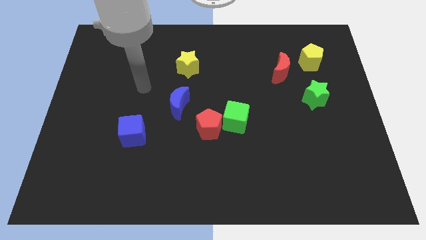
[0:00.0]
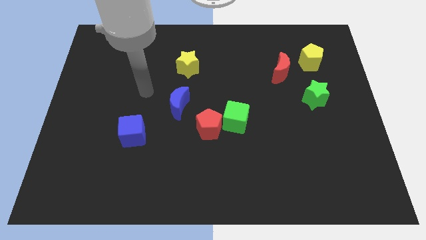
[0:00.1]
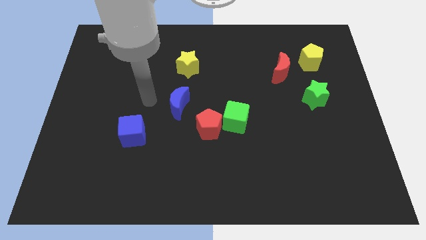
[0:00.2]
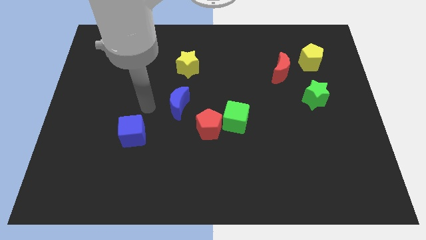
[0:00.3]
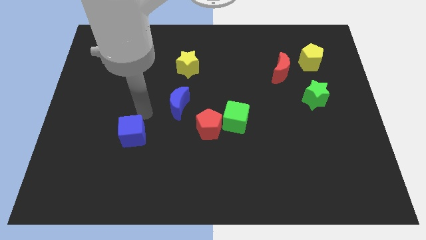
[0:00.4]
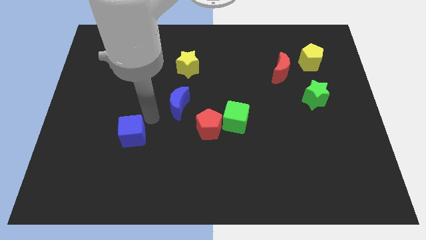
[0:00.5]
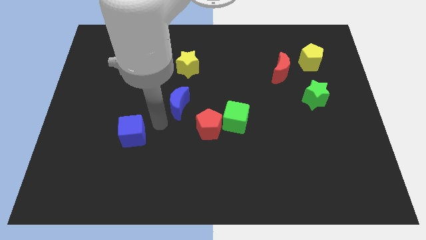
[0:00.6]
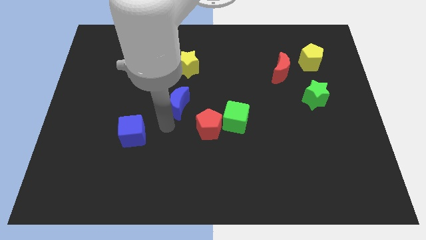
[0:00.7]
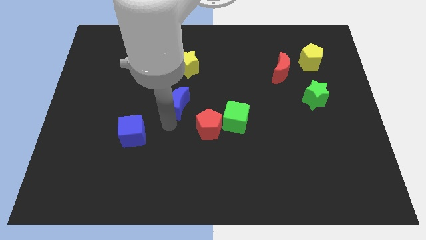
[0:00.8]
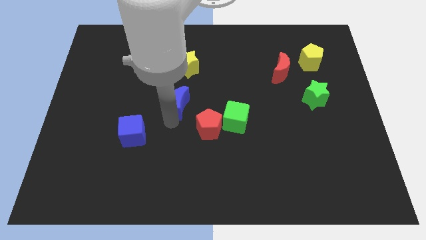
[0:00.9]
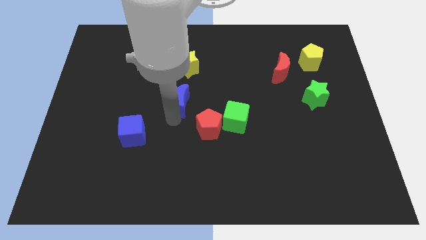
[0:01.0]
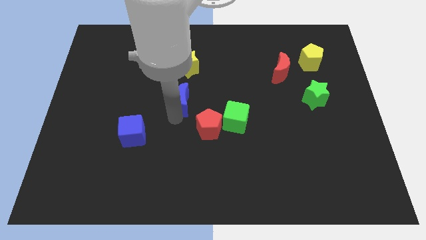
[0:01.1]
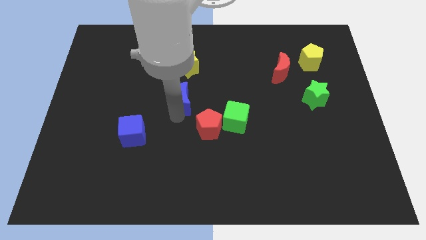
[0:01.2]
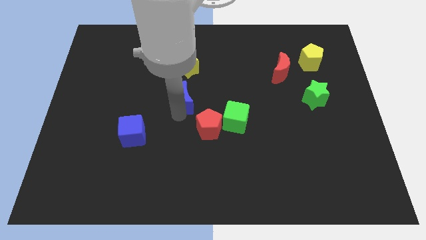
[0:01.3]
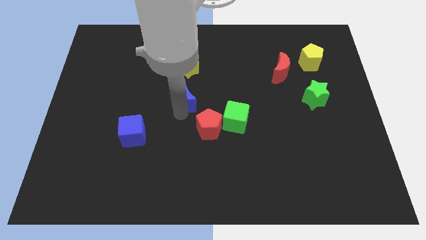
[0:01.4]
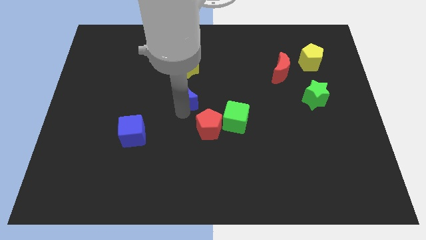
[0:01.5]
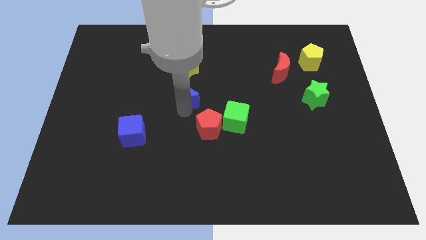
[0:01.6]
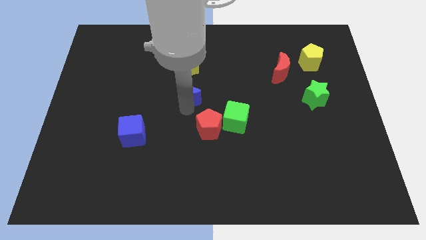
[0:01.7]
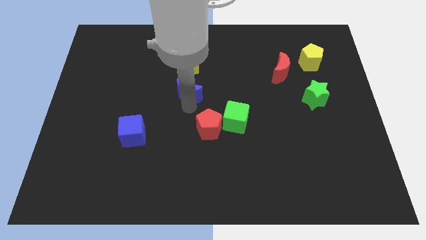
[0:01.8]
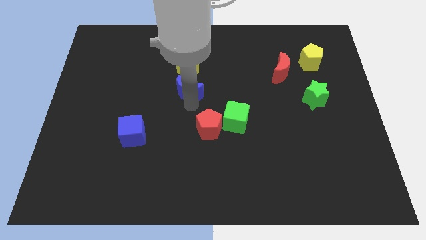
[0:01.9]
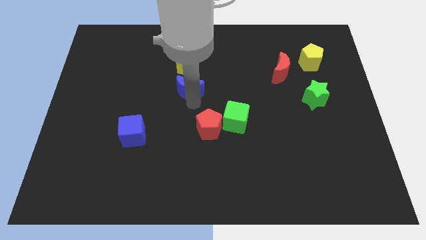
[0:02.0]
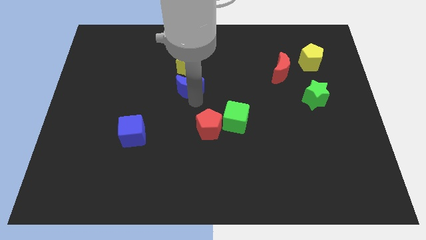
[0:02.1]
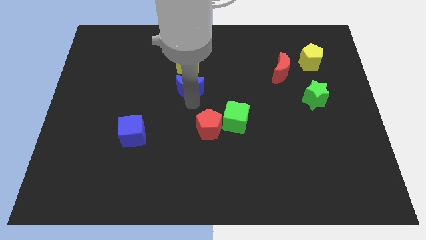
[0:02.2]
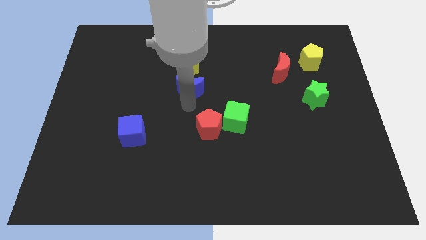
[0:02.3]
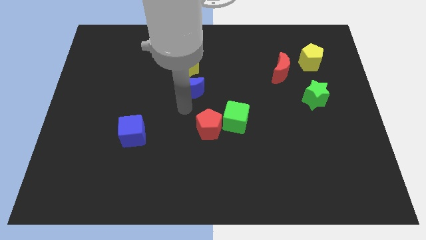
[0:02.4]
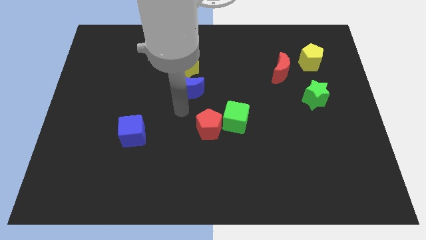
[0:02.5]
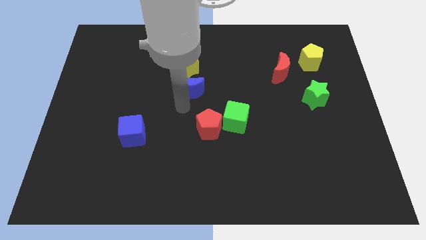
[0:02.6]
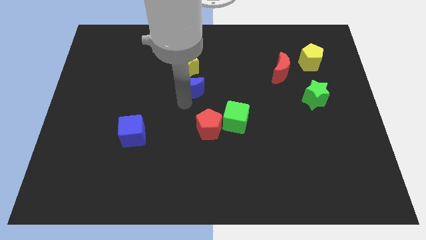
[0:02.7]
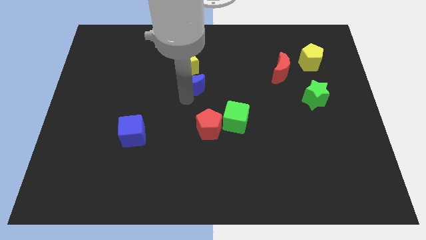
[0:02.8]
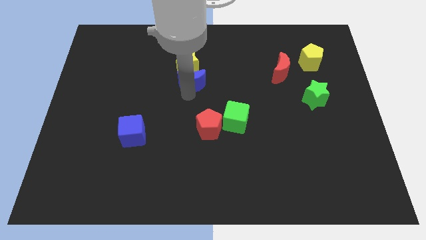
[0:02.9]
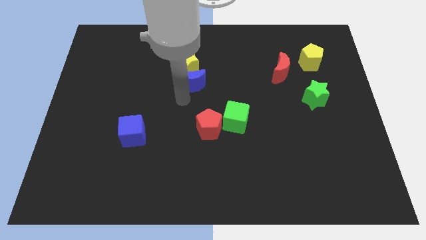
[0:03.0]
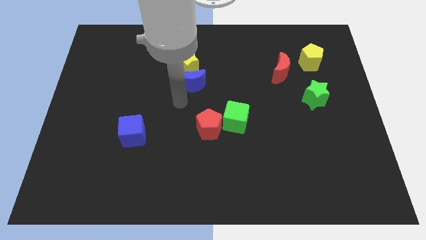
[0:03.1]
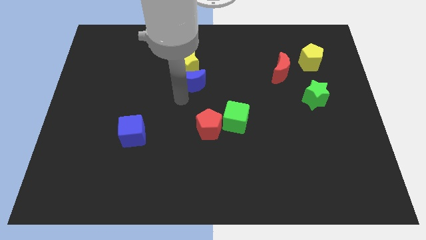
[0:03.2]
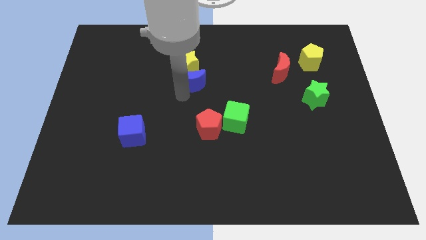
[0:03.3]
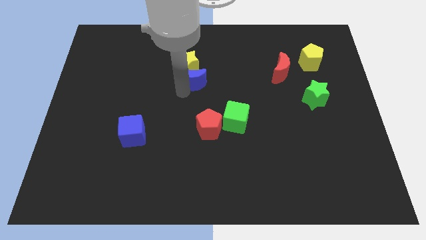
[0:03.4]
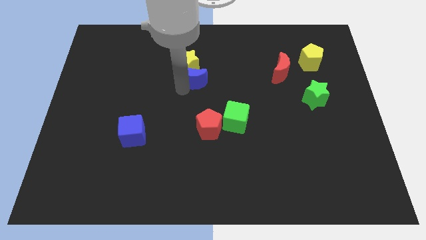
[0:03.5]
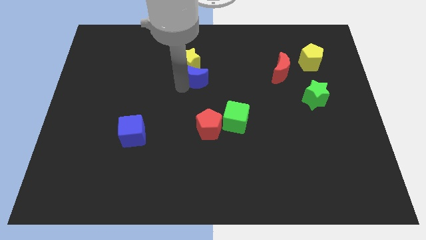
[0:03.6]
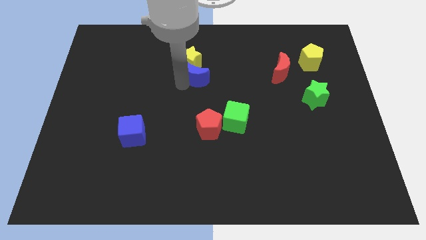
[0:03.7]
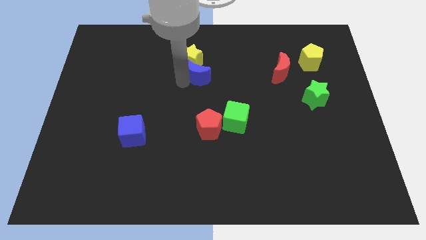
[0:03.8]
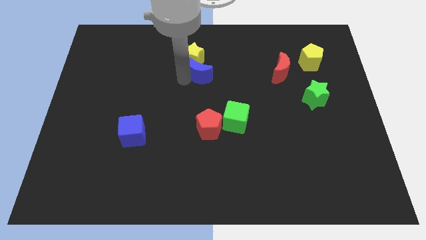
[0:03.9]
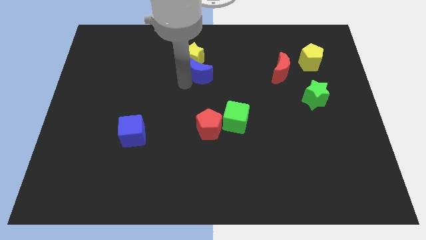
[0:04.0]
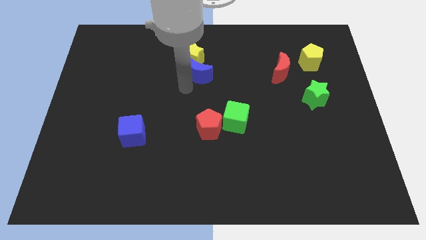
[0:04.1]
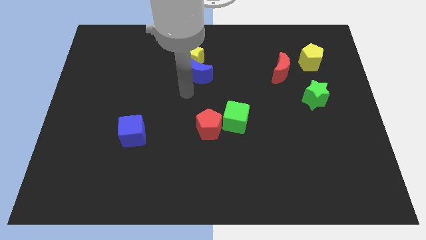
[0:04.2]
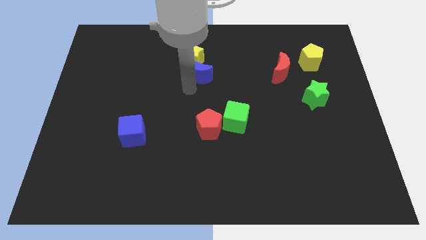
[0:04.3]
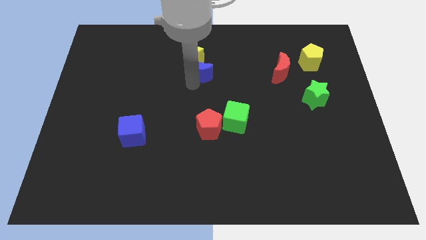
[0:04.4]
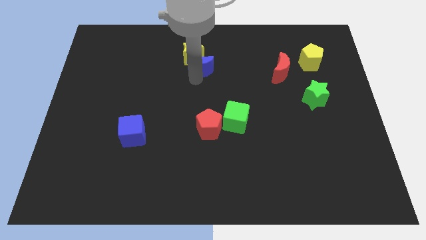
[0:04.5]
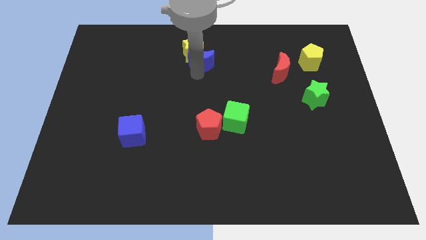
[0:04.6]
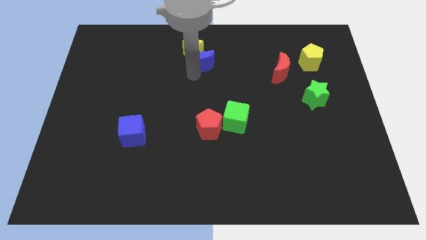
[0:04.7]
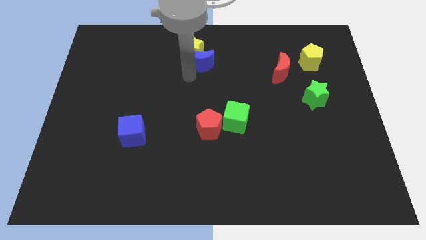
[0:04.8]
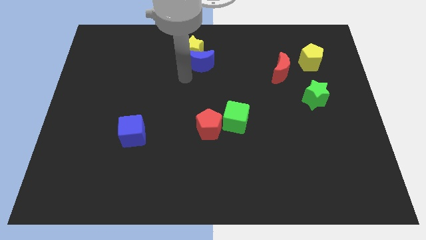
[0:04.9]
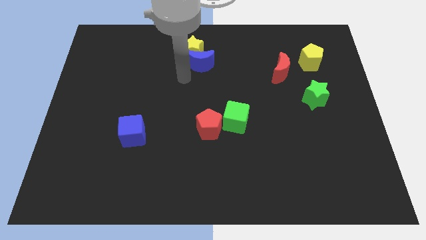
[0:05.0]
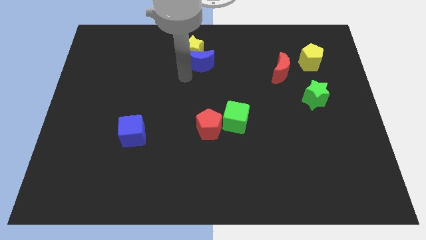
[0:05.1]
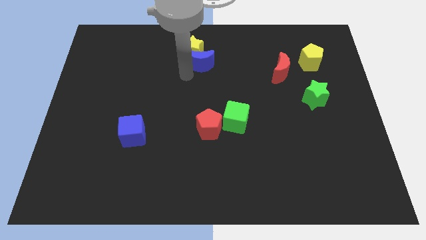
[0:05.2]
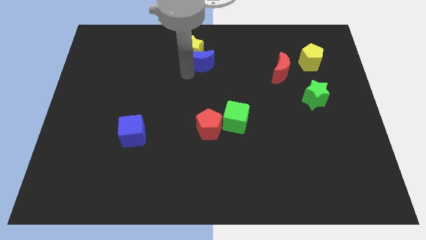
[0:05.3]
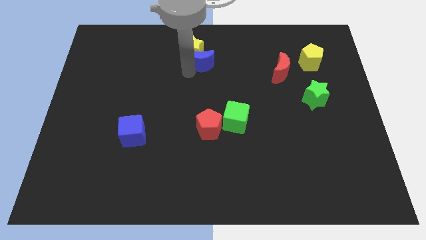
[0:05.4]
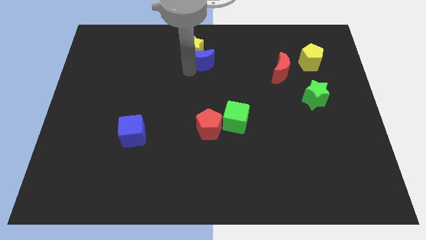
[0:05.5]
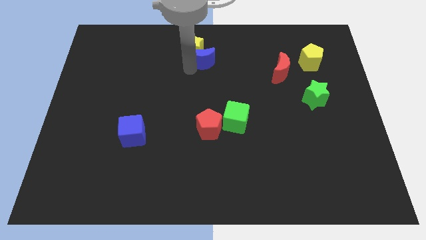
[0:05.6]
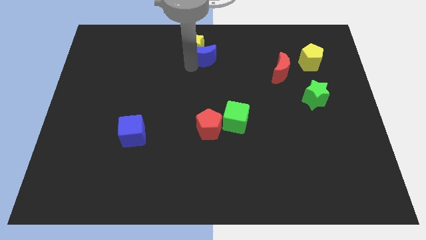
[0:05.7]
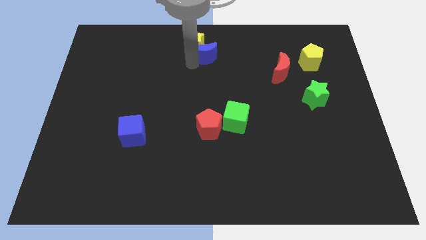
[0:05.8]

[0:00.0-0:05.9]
push the blue moon to the towards your base

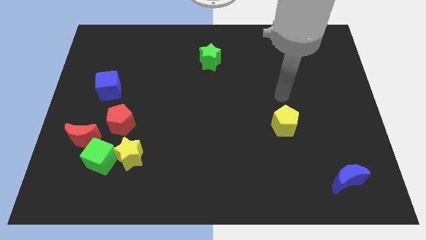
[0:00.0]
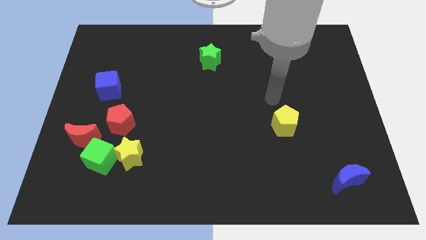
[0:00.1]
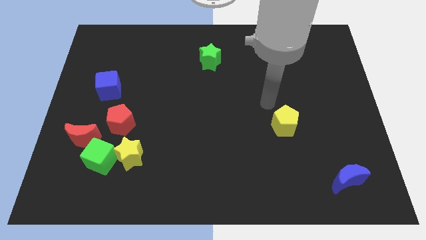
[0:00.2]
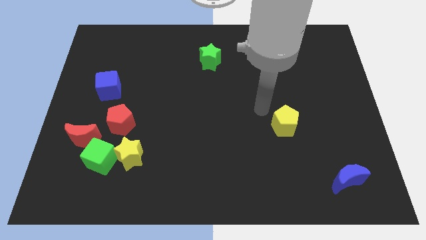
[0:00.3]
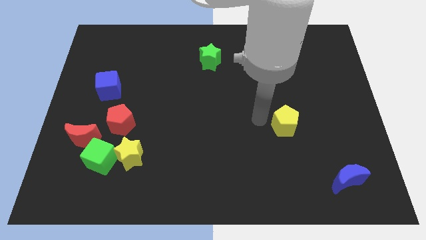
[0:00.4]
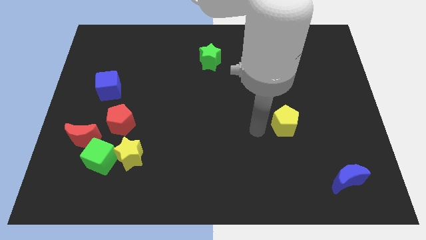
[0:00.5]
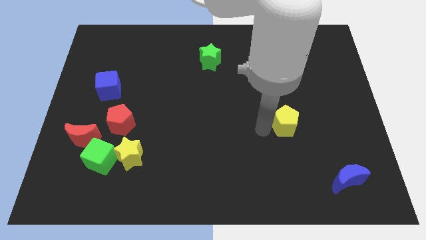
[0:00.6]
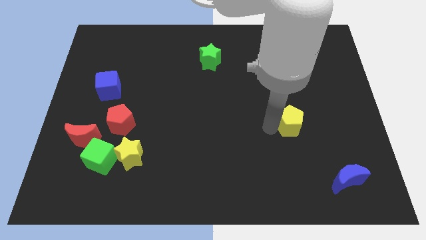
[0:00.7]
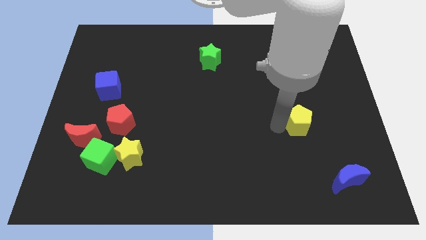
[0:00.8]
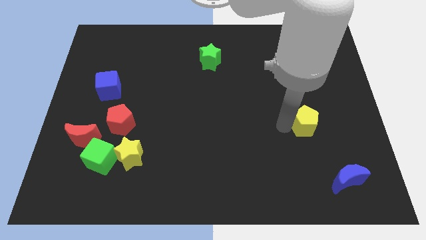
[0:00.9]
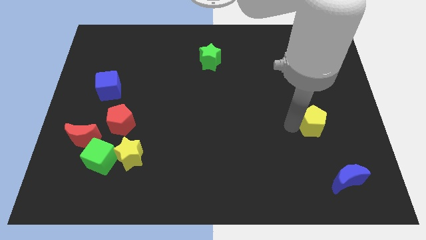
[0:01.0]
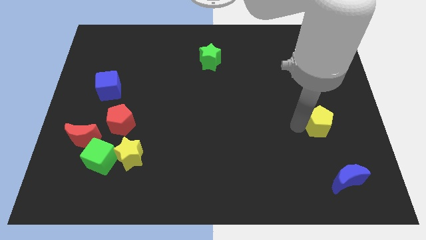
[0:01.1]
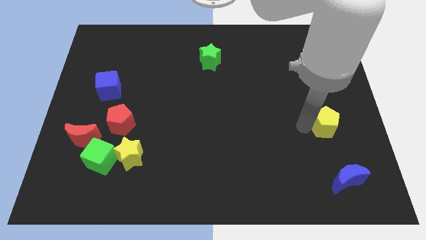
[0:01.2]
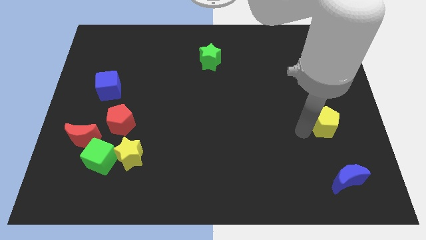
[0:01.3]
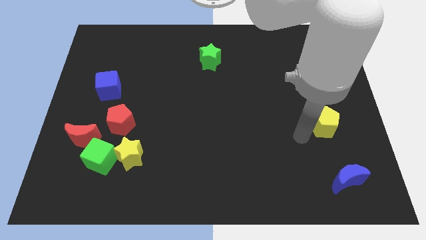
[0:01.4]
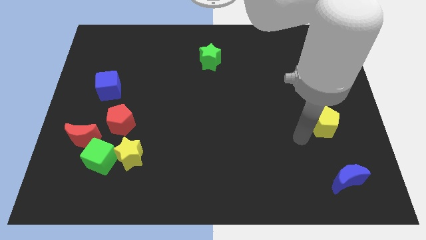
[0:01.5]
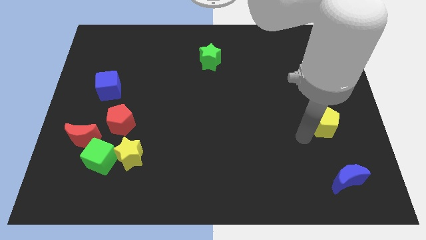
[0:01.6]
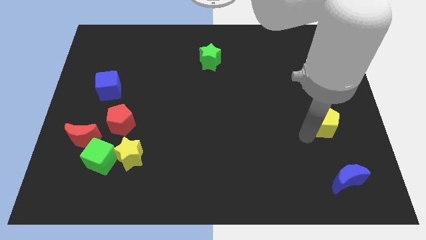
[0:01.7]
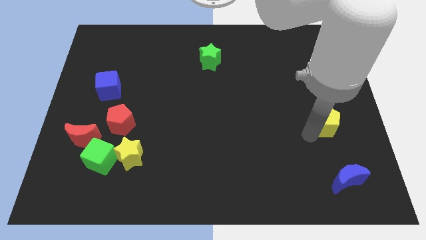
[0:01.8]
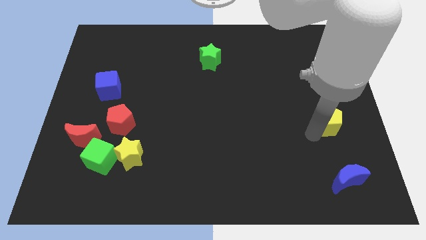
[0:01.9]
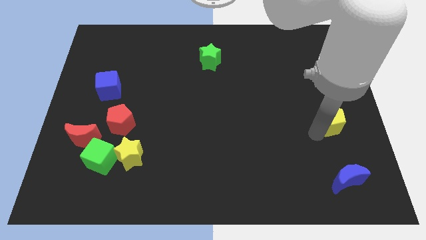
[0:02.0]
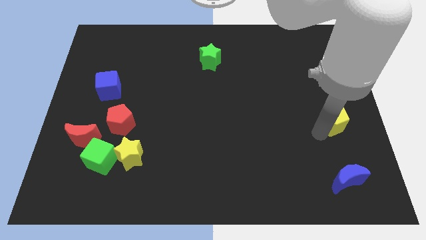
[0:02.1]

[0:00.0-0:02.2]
move the yellow pentagon to the center right
